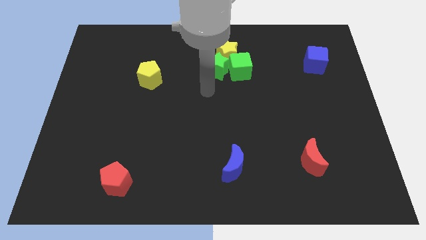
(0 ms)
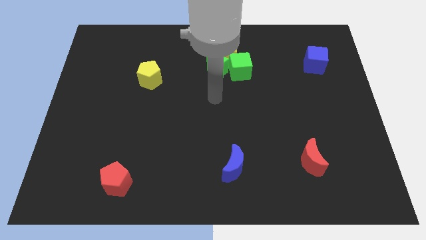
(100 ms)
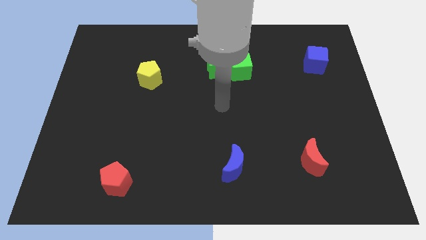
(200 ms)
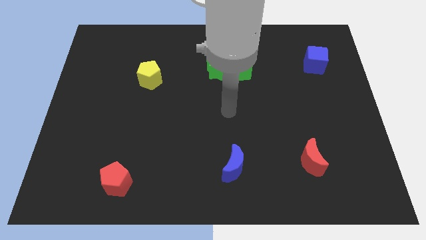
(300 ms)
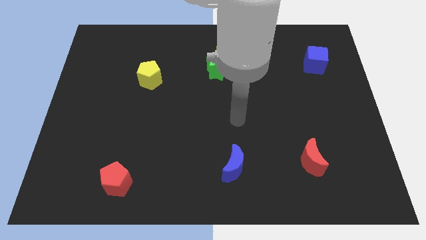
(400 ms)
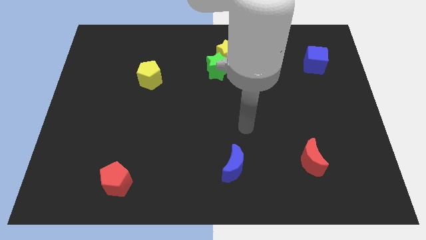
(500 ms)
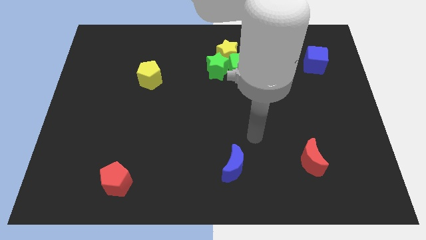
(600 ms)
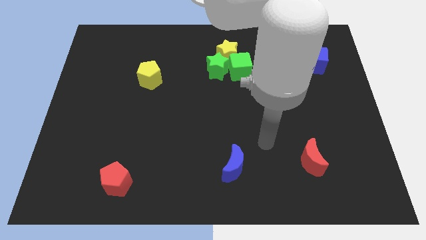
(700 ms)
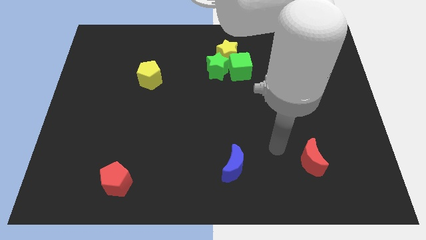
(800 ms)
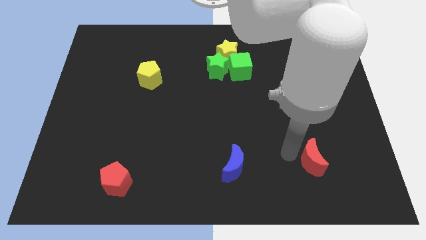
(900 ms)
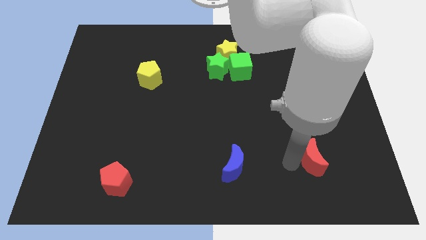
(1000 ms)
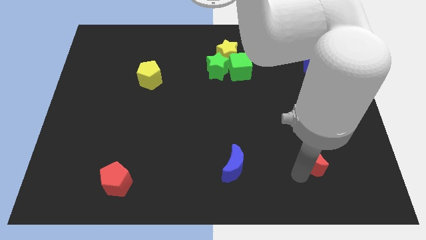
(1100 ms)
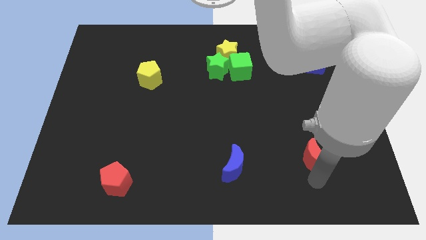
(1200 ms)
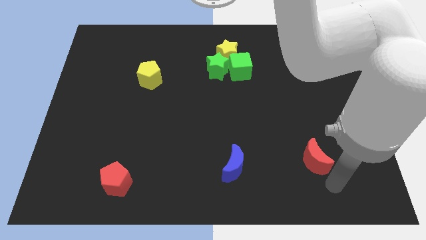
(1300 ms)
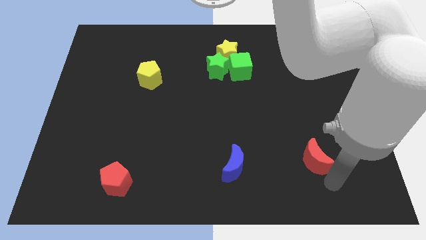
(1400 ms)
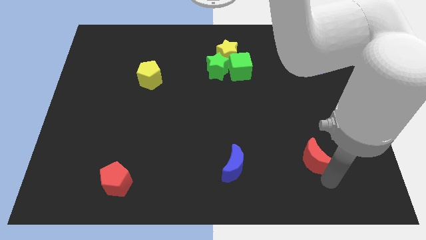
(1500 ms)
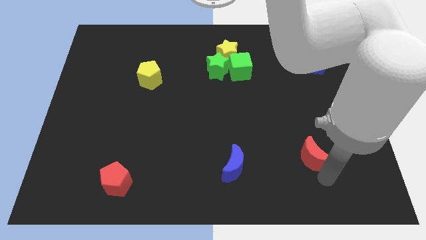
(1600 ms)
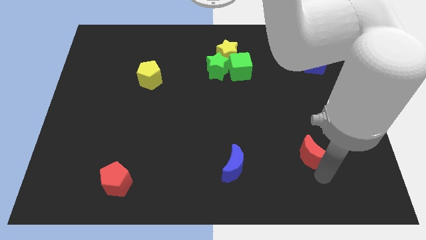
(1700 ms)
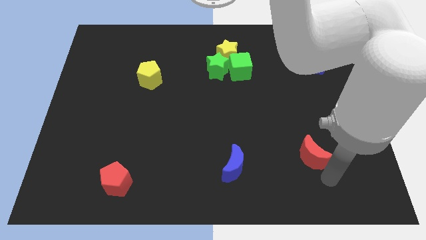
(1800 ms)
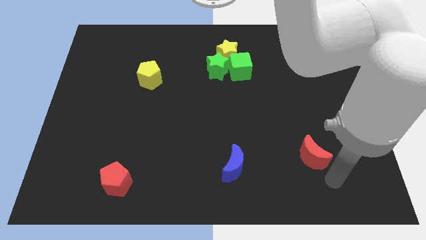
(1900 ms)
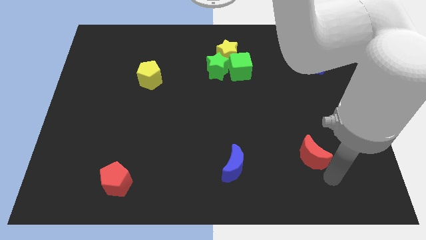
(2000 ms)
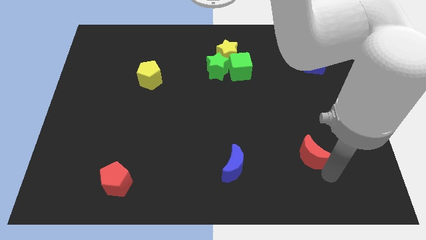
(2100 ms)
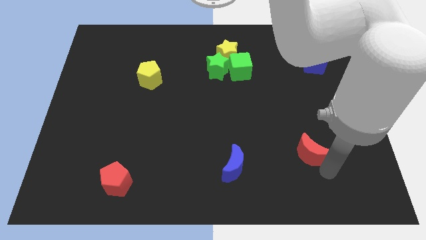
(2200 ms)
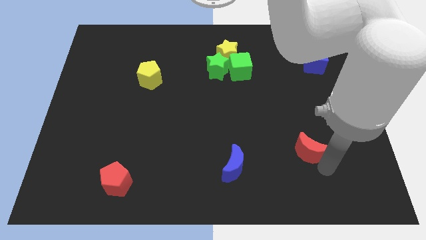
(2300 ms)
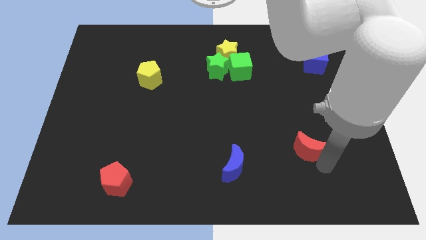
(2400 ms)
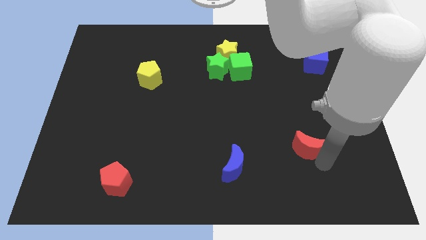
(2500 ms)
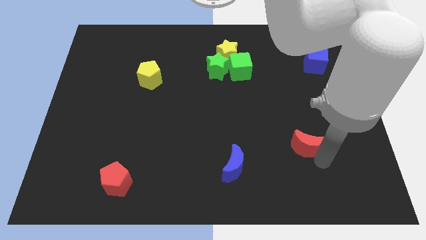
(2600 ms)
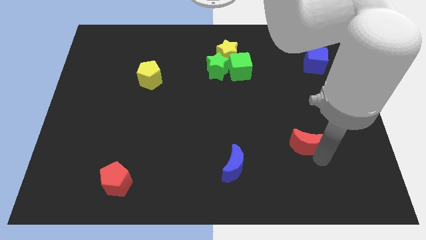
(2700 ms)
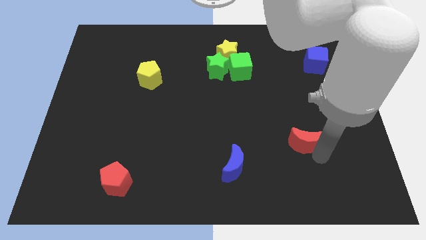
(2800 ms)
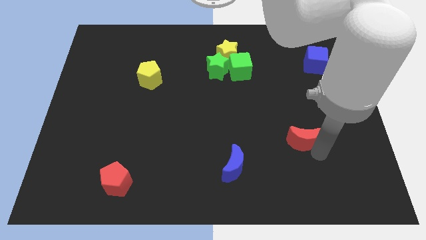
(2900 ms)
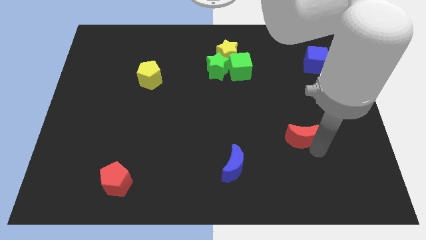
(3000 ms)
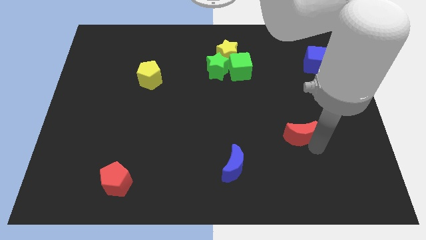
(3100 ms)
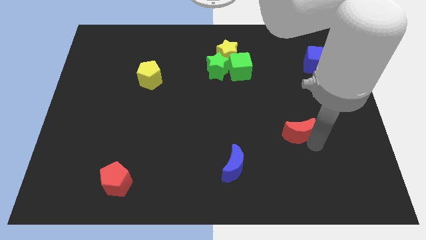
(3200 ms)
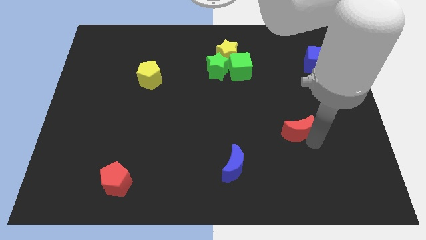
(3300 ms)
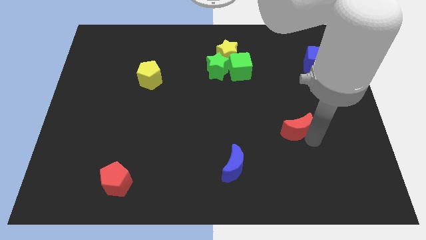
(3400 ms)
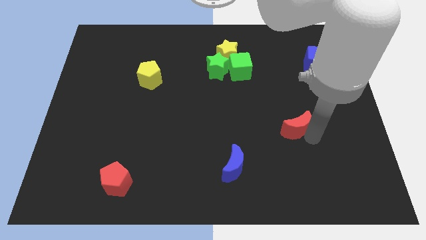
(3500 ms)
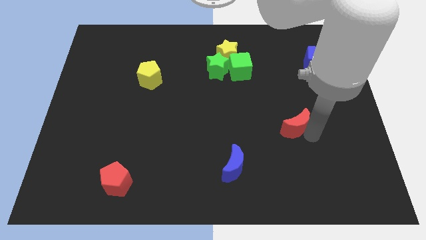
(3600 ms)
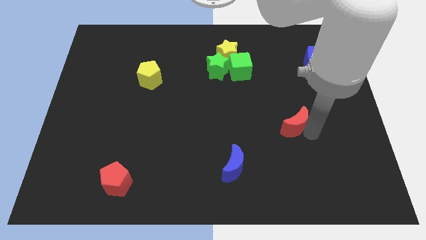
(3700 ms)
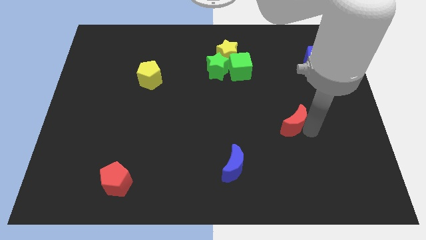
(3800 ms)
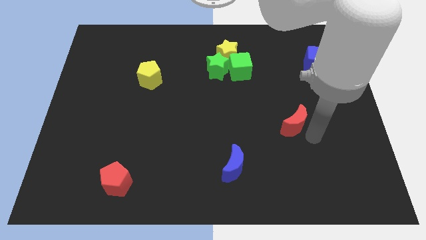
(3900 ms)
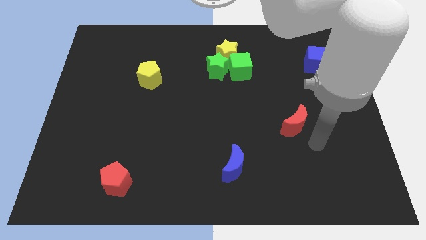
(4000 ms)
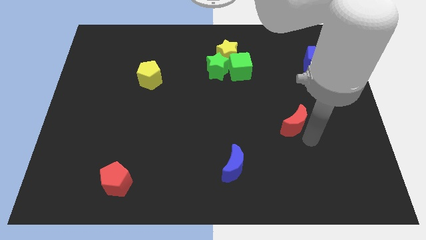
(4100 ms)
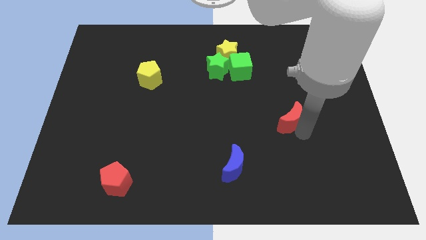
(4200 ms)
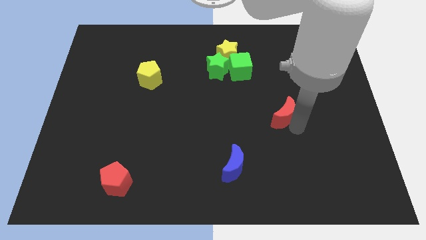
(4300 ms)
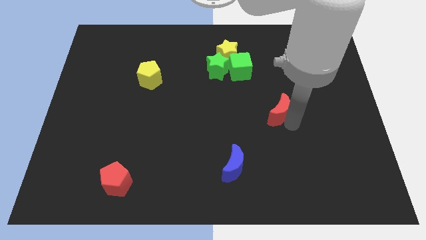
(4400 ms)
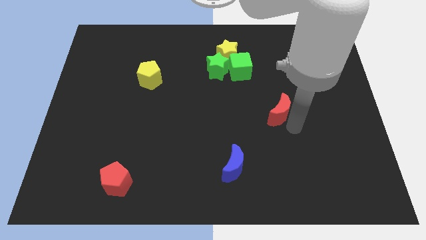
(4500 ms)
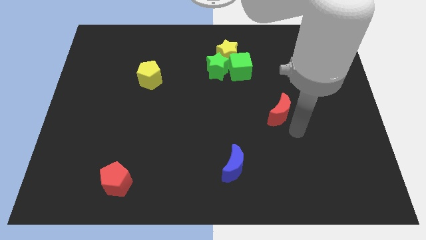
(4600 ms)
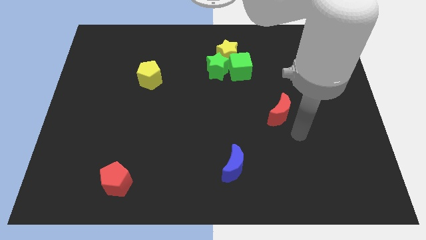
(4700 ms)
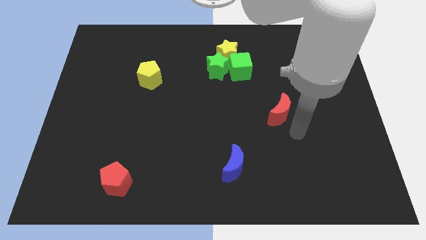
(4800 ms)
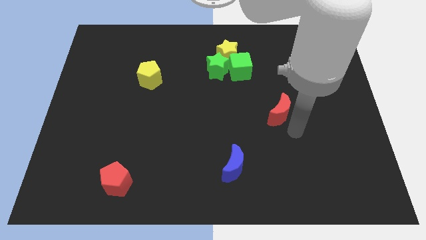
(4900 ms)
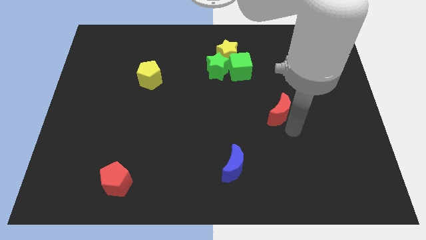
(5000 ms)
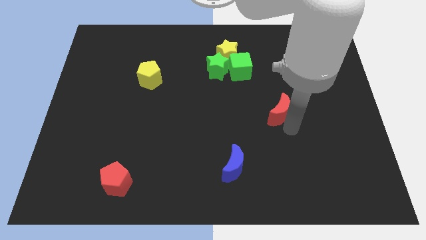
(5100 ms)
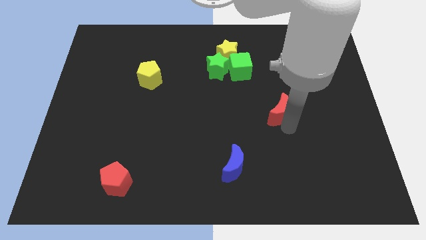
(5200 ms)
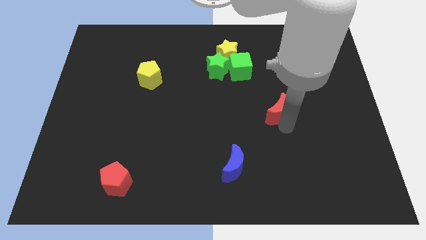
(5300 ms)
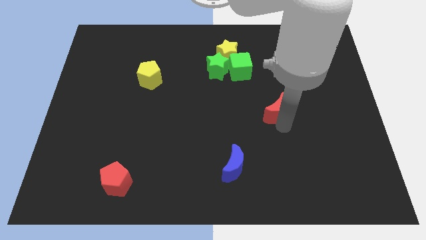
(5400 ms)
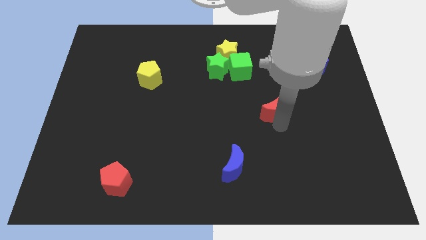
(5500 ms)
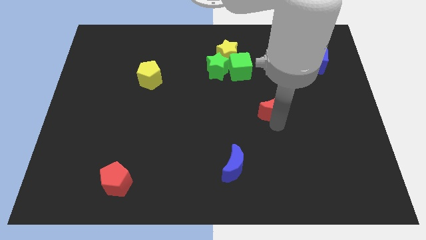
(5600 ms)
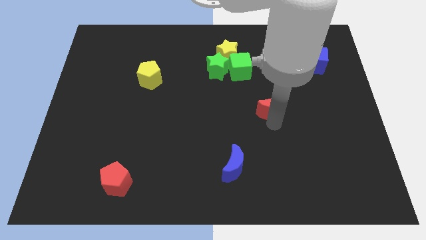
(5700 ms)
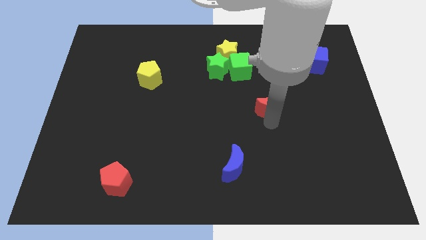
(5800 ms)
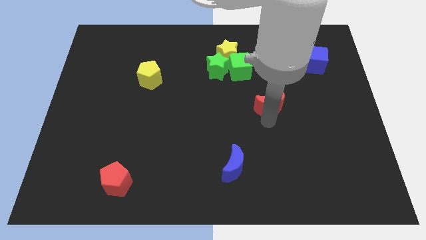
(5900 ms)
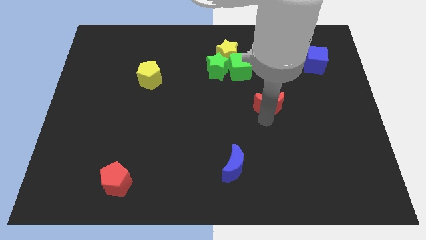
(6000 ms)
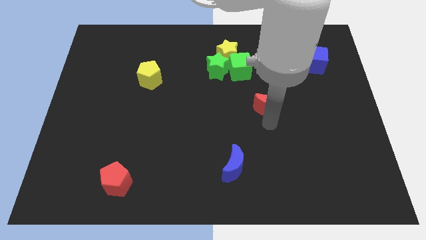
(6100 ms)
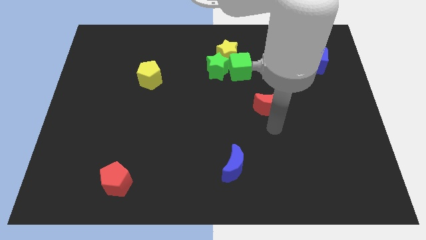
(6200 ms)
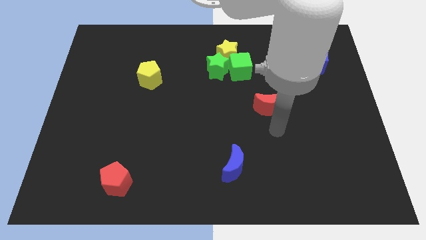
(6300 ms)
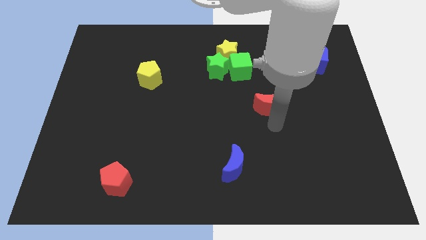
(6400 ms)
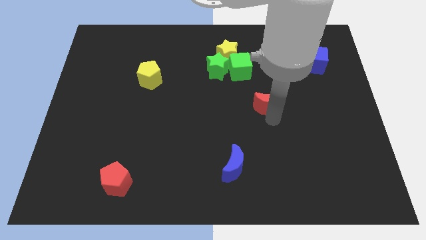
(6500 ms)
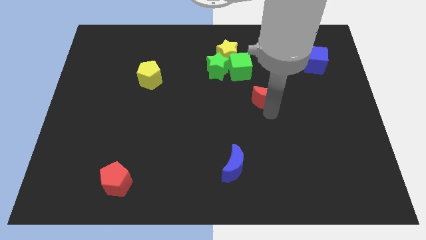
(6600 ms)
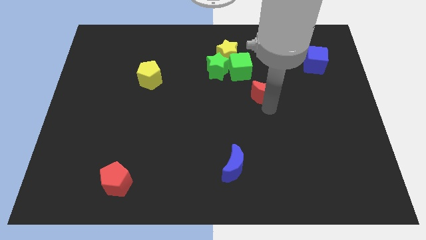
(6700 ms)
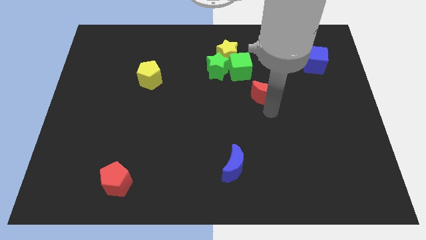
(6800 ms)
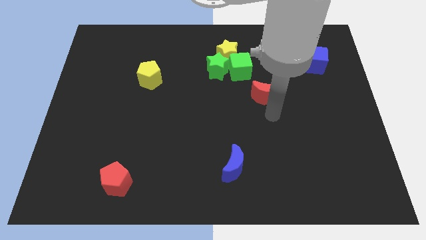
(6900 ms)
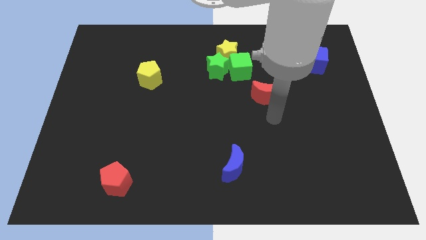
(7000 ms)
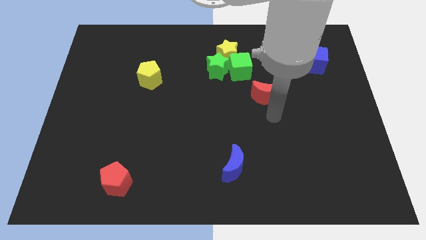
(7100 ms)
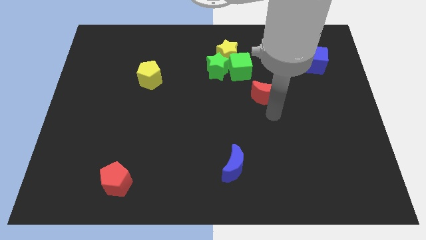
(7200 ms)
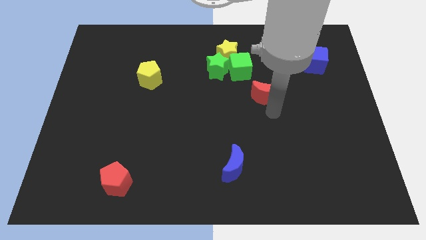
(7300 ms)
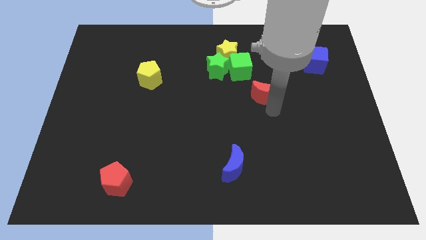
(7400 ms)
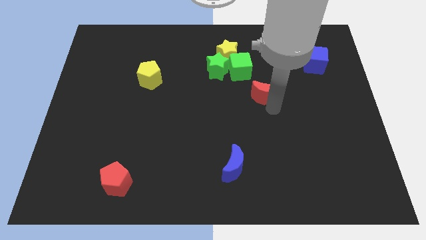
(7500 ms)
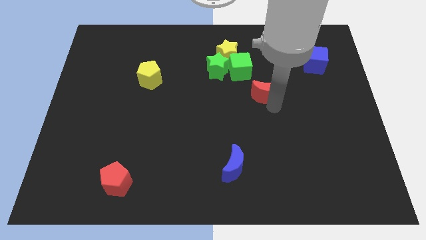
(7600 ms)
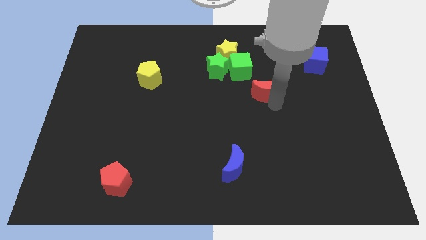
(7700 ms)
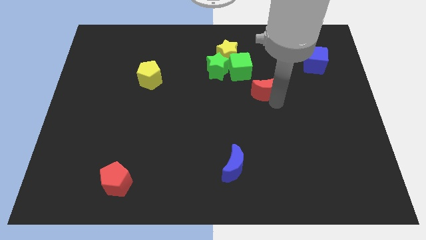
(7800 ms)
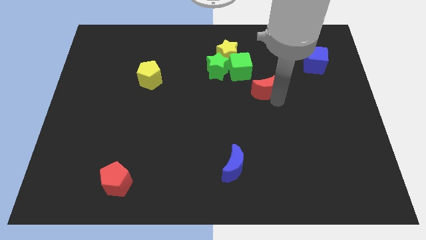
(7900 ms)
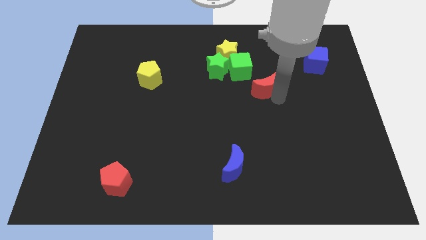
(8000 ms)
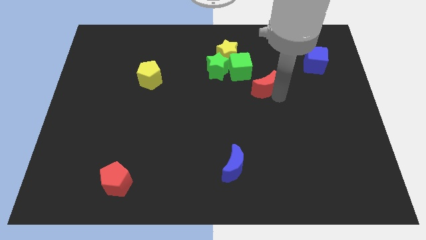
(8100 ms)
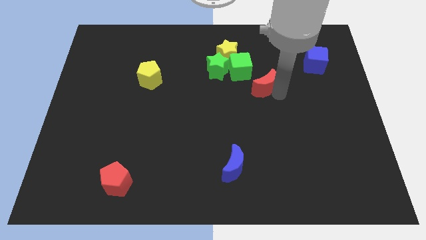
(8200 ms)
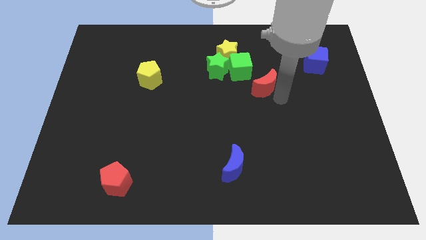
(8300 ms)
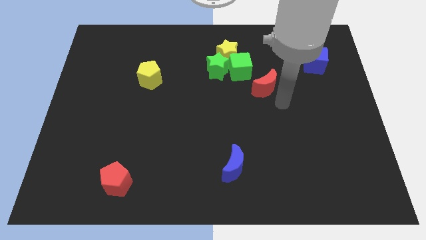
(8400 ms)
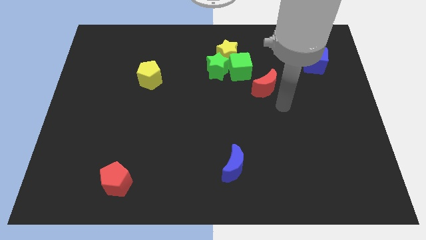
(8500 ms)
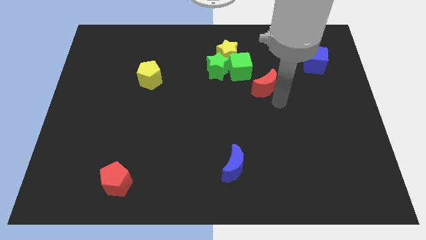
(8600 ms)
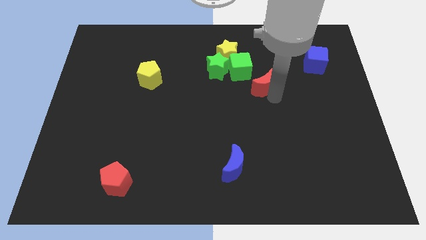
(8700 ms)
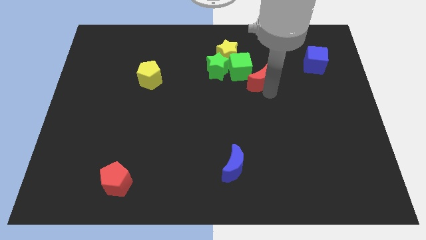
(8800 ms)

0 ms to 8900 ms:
put the red moon diagonally down and to the right of the yellow star
